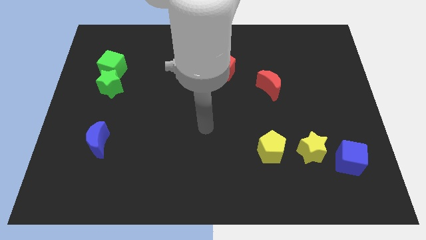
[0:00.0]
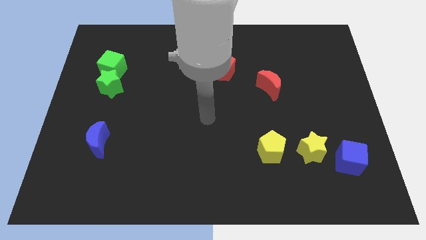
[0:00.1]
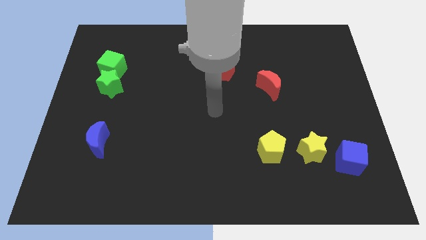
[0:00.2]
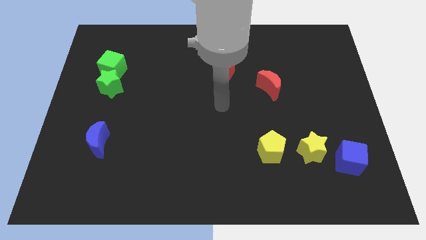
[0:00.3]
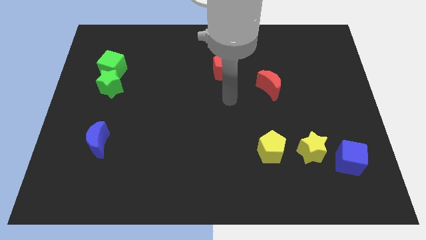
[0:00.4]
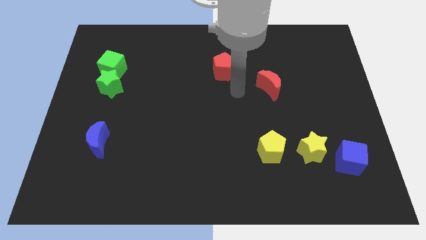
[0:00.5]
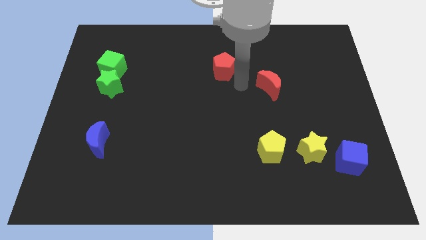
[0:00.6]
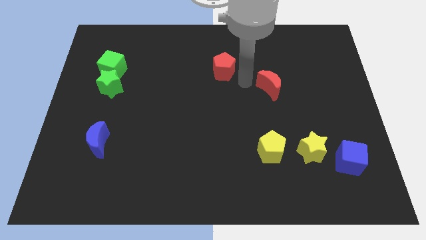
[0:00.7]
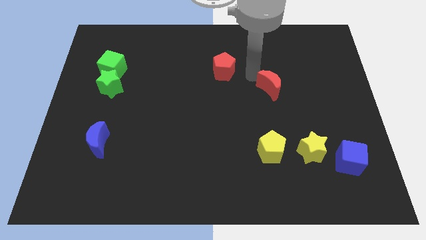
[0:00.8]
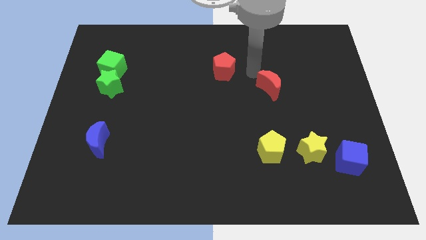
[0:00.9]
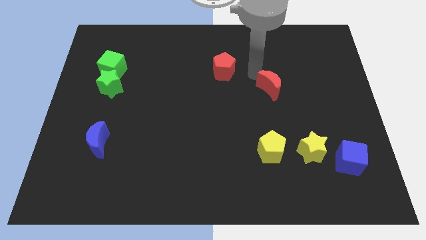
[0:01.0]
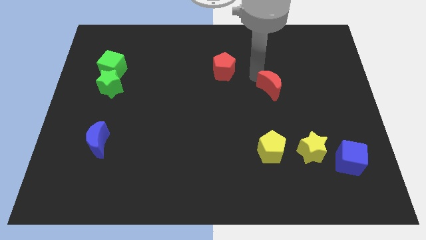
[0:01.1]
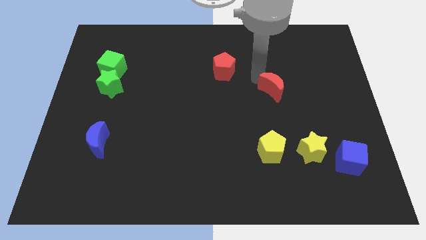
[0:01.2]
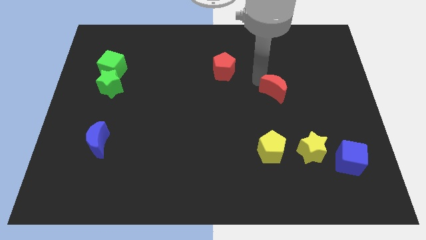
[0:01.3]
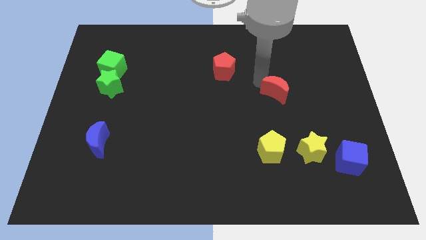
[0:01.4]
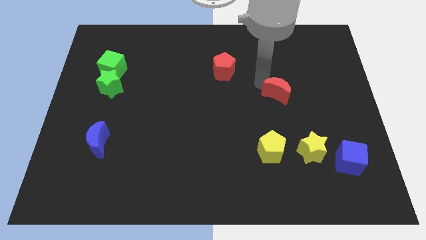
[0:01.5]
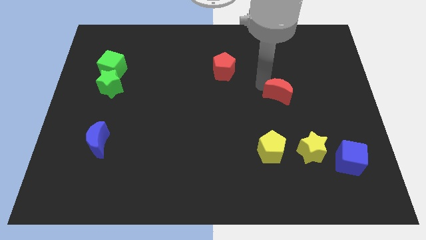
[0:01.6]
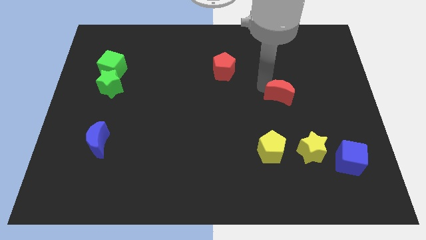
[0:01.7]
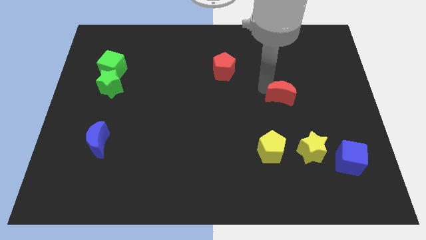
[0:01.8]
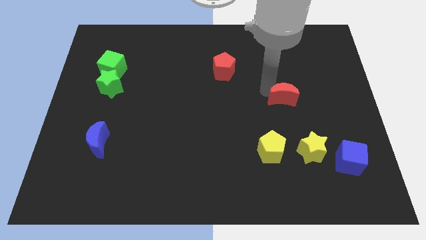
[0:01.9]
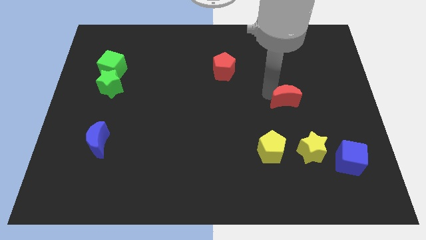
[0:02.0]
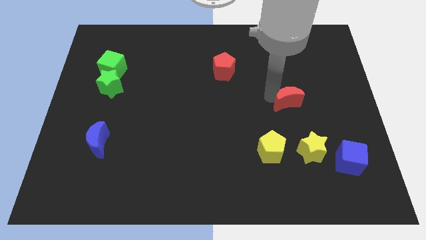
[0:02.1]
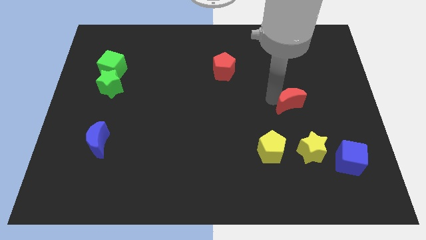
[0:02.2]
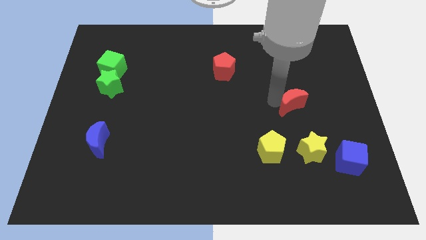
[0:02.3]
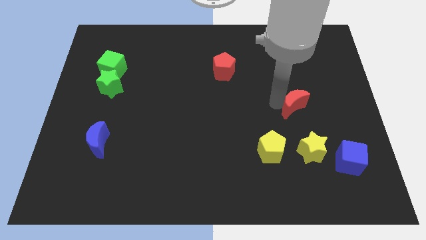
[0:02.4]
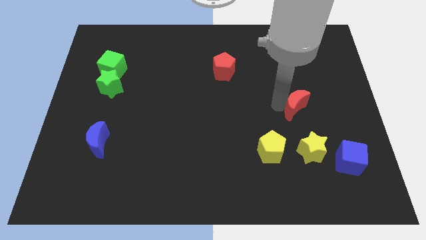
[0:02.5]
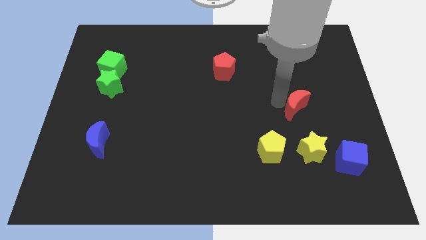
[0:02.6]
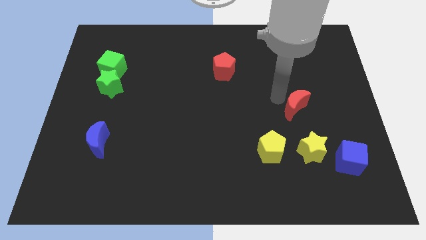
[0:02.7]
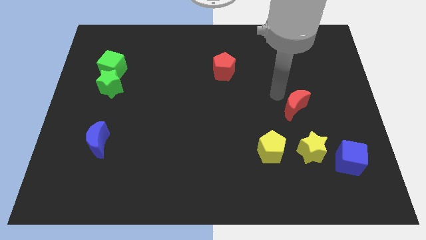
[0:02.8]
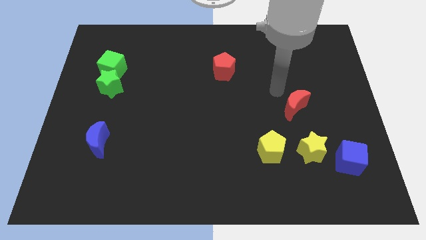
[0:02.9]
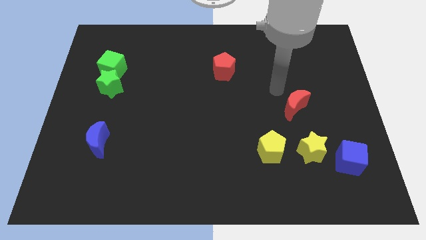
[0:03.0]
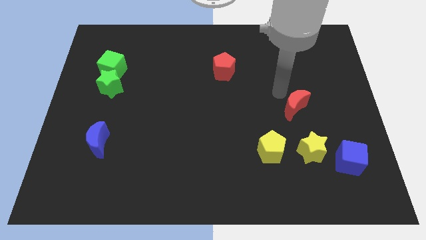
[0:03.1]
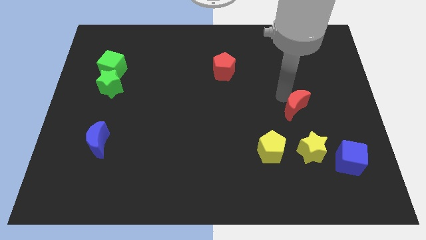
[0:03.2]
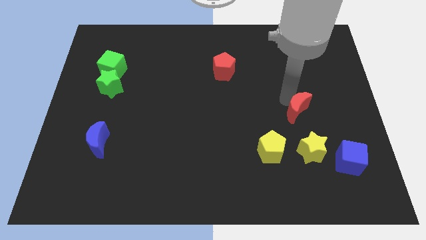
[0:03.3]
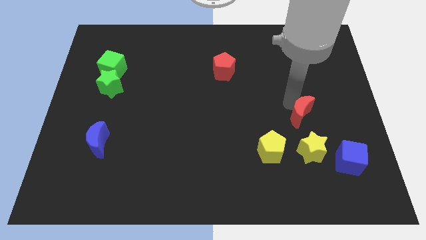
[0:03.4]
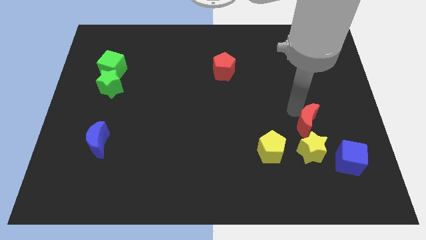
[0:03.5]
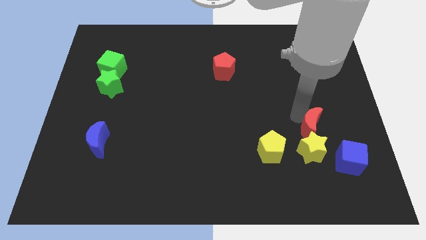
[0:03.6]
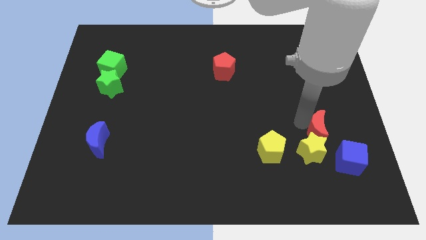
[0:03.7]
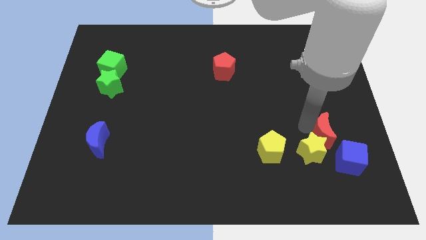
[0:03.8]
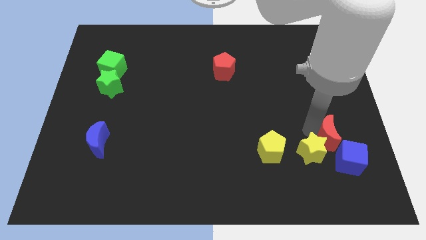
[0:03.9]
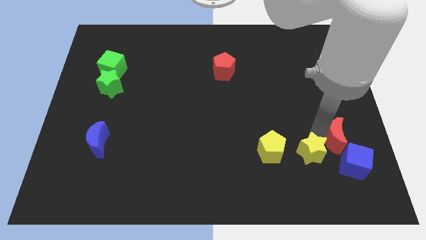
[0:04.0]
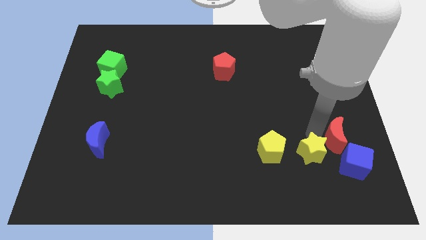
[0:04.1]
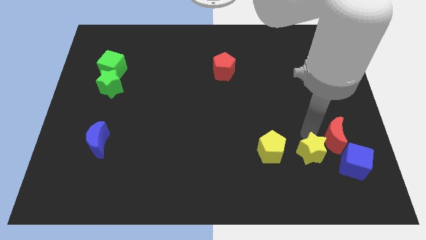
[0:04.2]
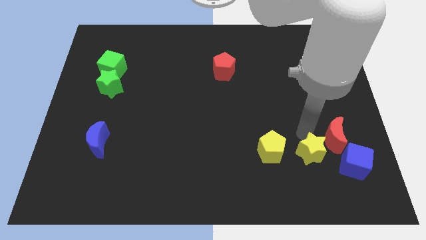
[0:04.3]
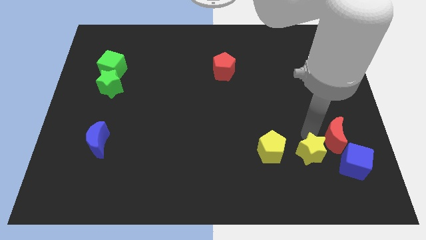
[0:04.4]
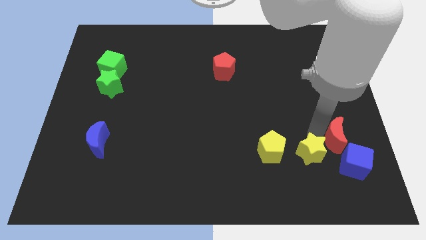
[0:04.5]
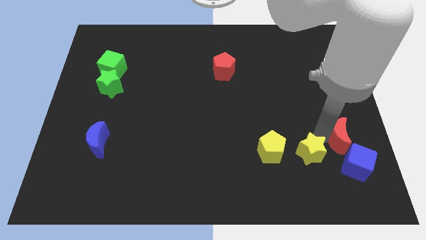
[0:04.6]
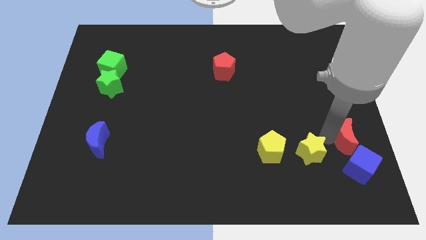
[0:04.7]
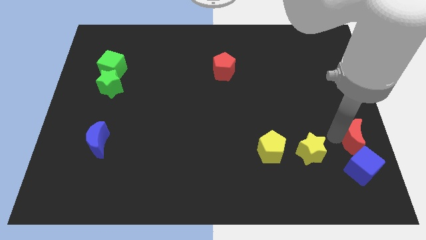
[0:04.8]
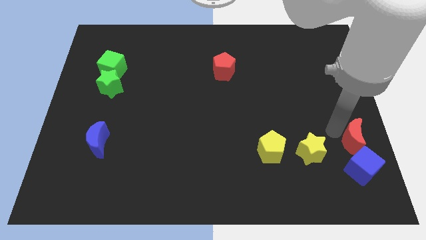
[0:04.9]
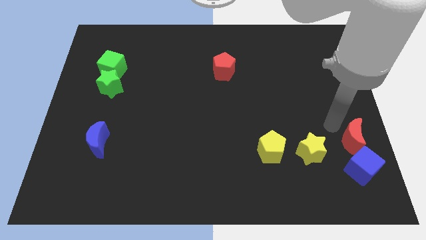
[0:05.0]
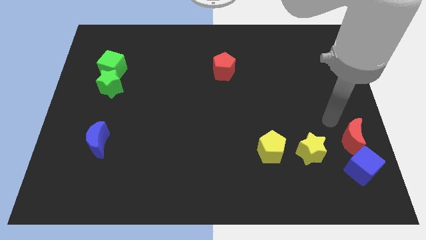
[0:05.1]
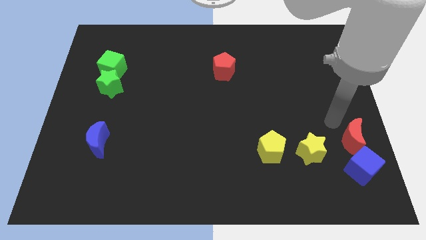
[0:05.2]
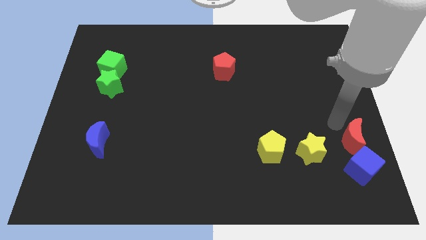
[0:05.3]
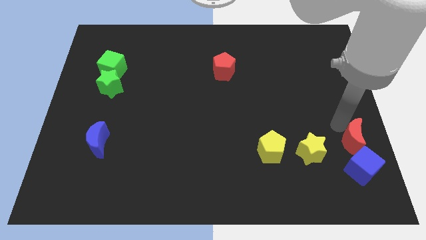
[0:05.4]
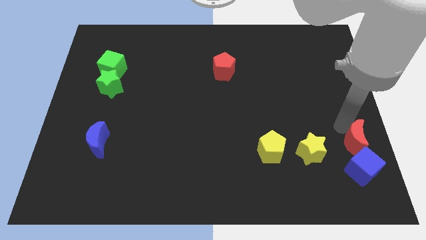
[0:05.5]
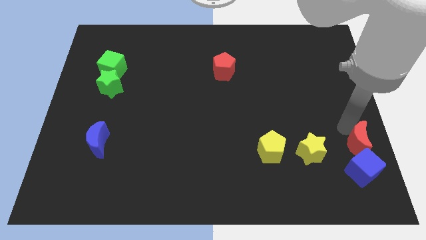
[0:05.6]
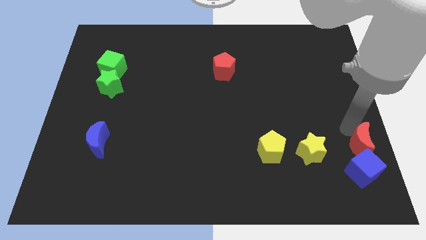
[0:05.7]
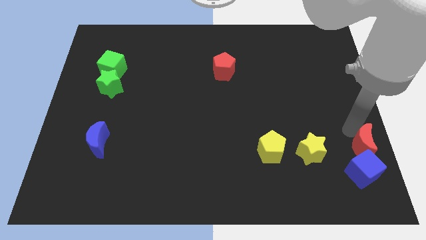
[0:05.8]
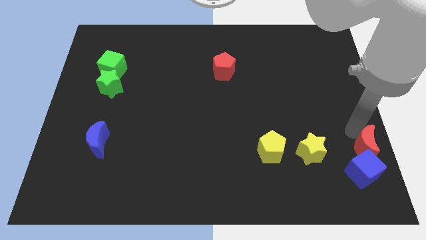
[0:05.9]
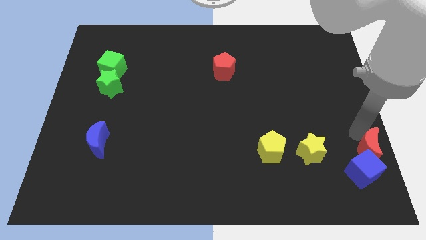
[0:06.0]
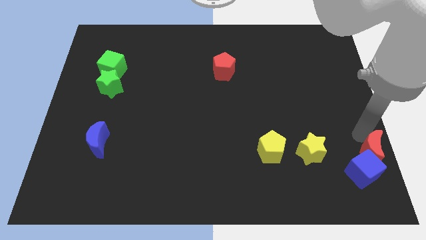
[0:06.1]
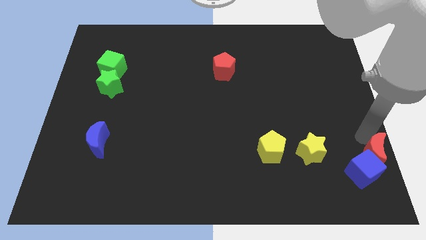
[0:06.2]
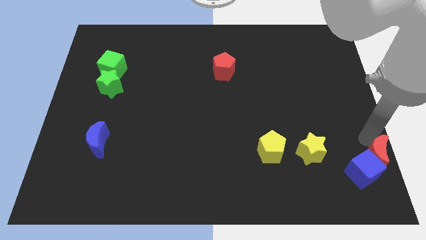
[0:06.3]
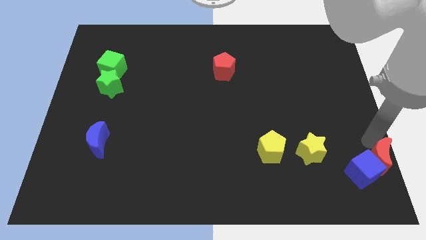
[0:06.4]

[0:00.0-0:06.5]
move the red moon to the bottom right
